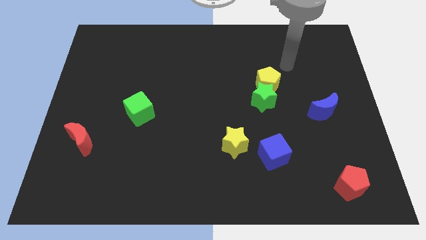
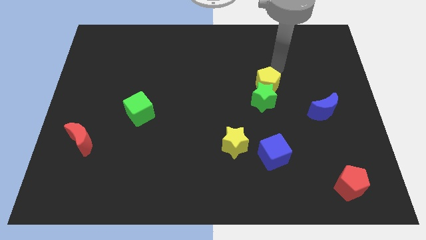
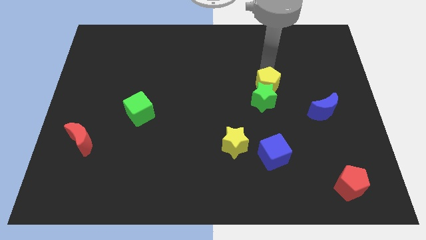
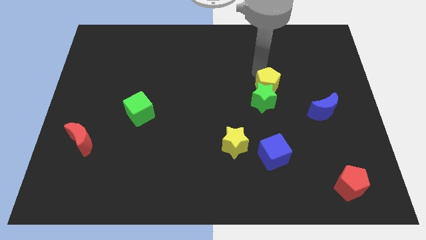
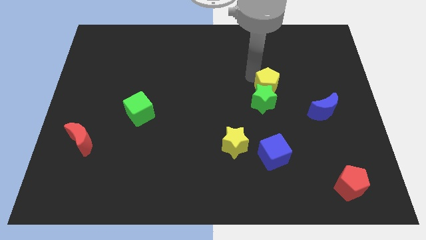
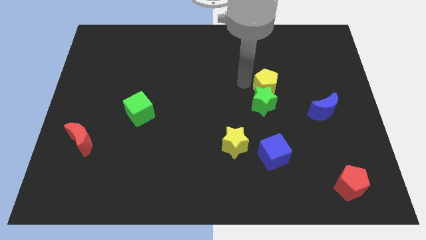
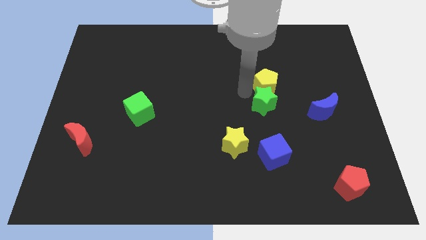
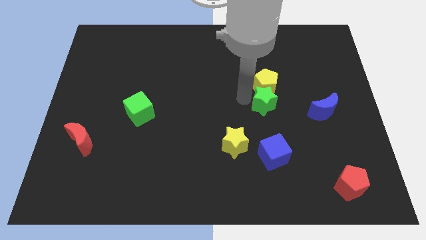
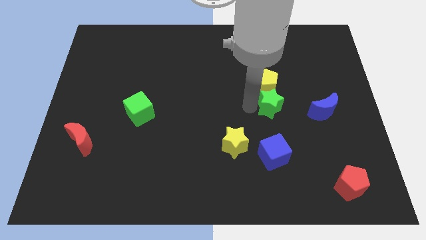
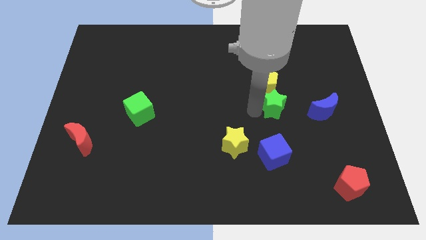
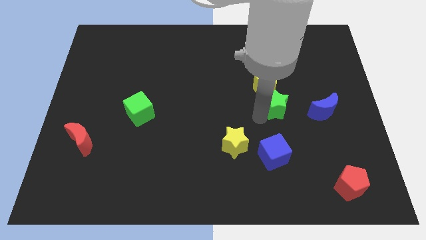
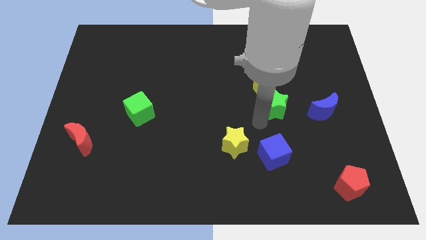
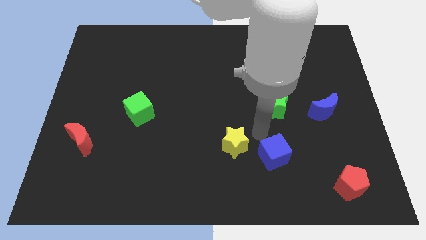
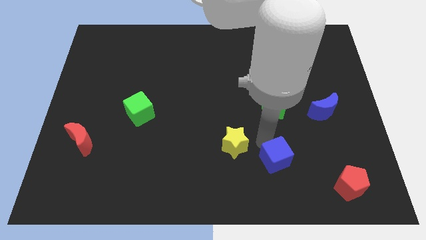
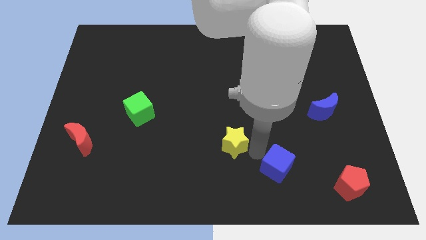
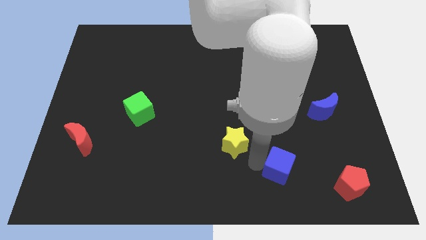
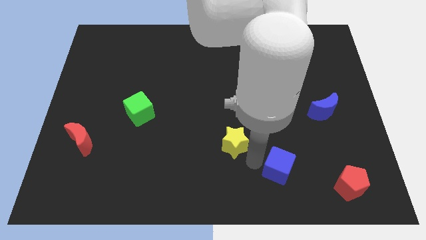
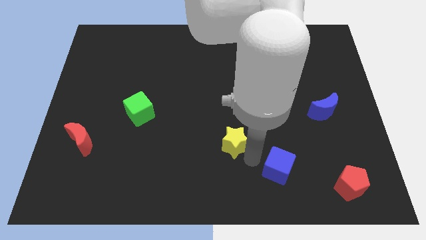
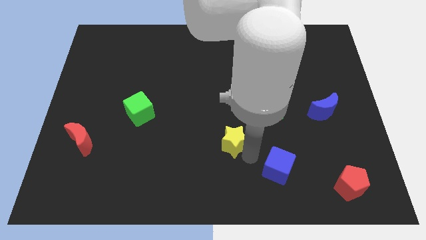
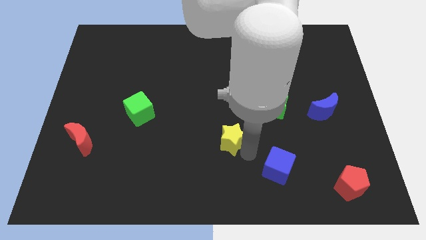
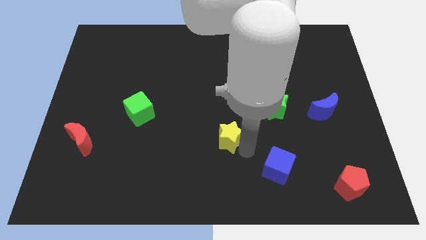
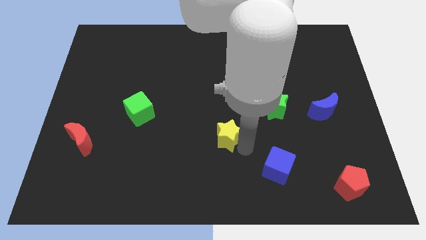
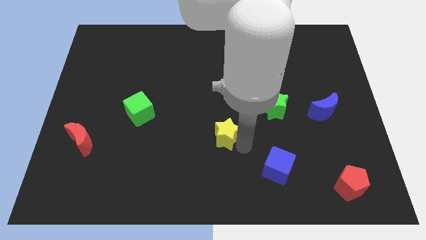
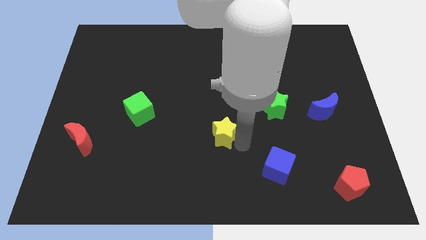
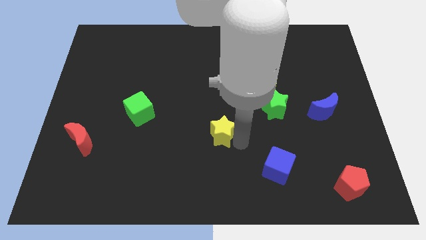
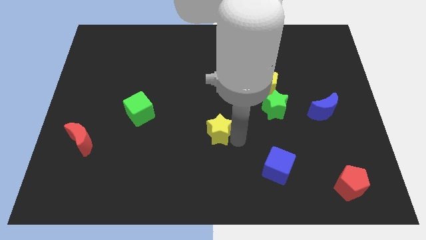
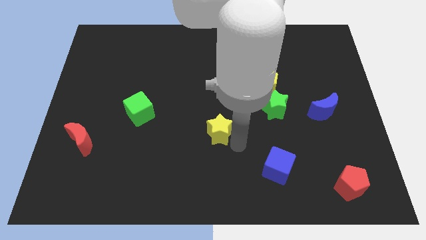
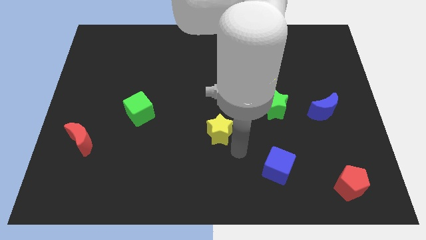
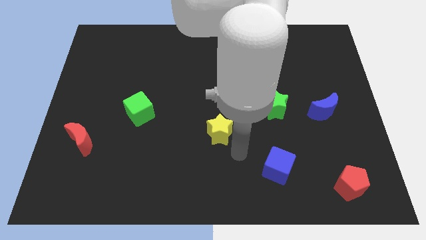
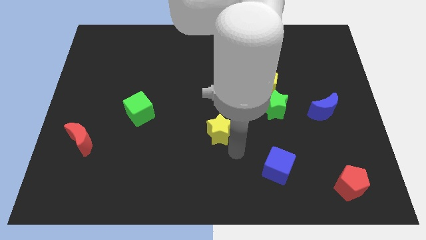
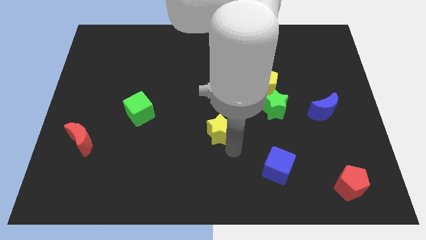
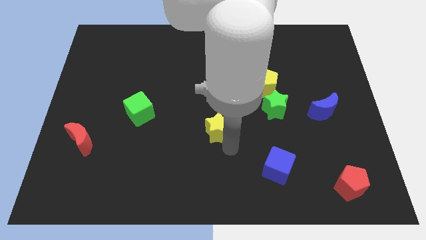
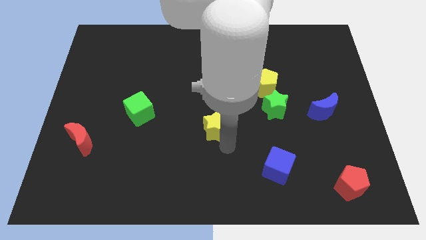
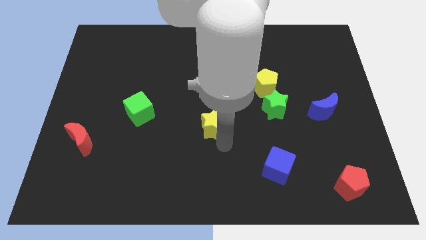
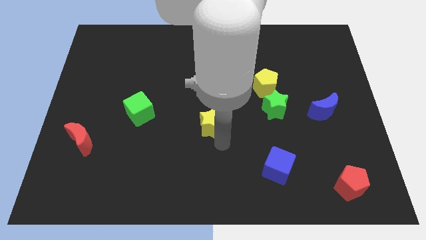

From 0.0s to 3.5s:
push the yellow star somewhat upwards and then to the left

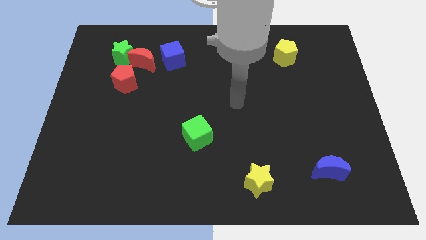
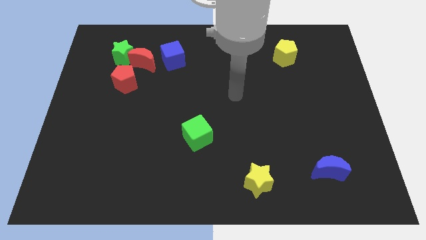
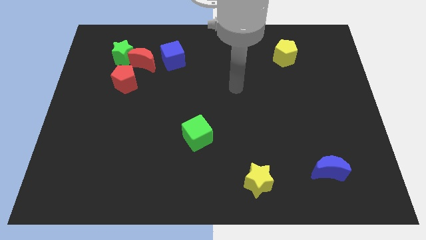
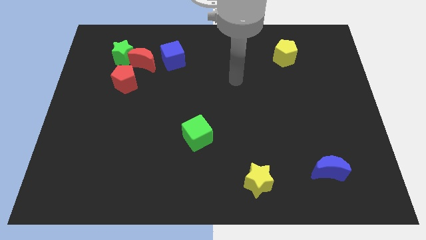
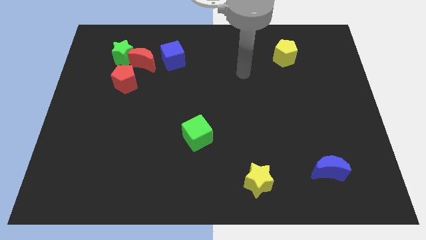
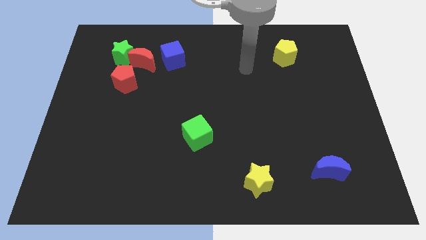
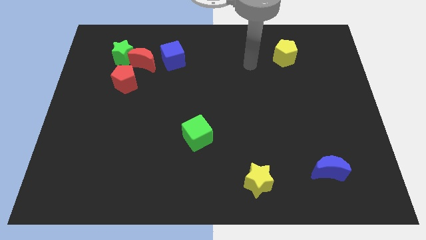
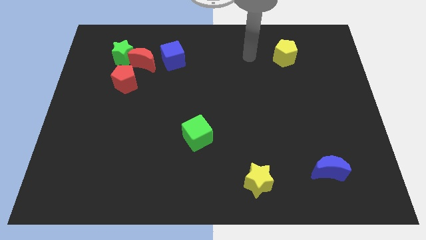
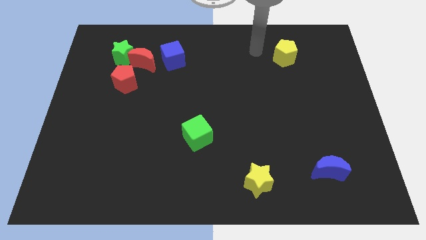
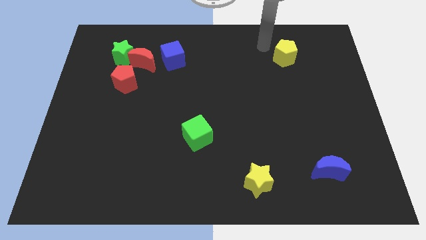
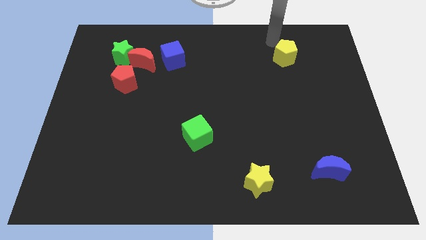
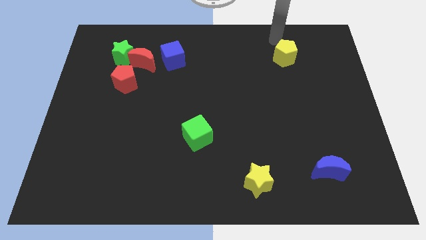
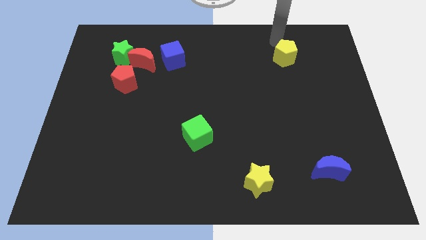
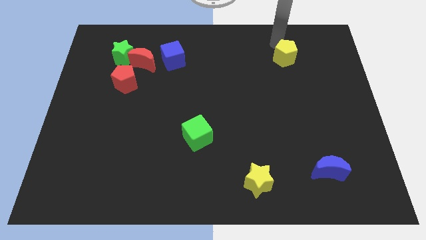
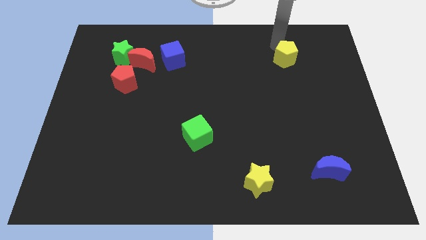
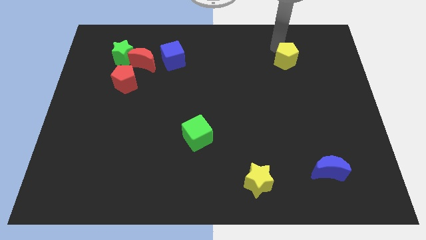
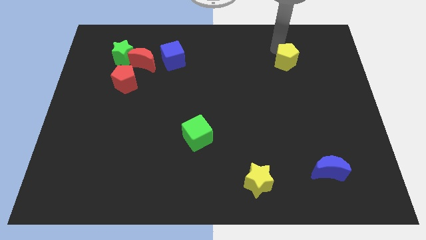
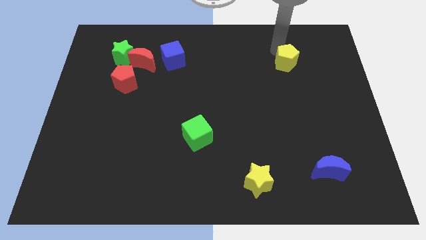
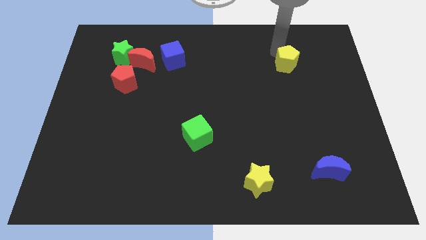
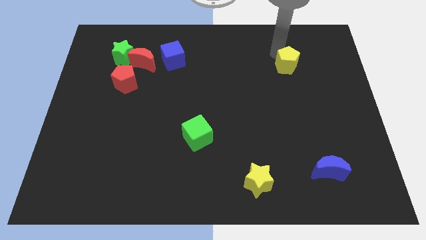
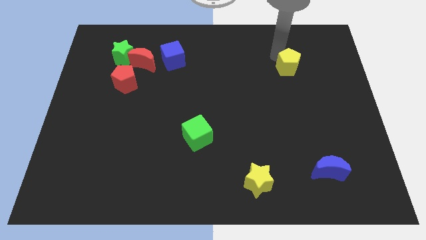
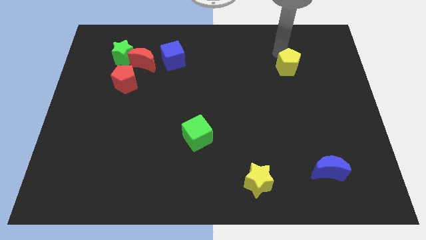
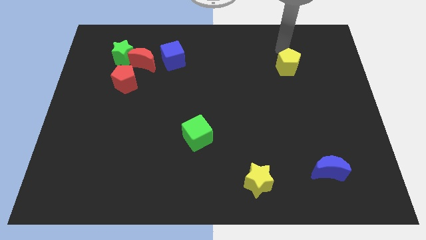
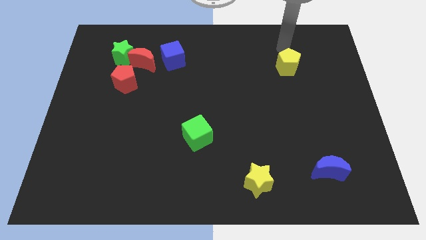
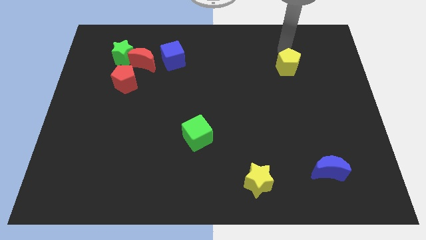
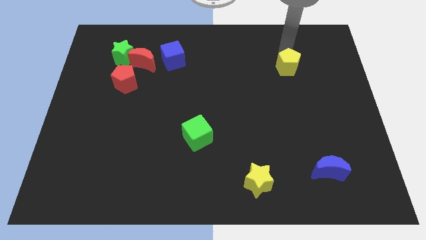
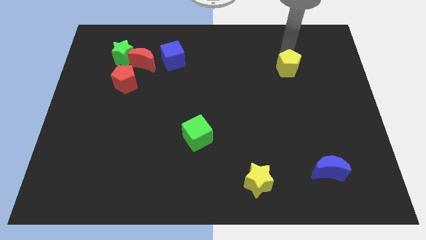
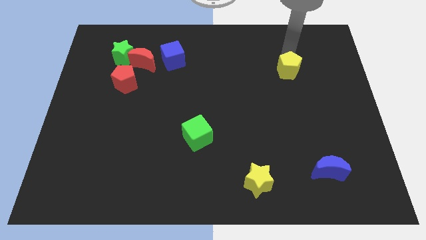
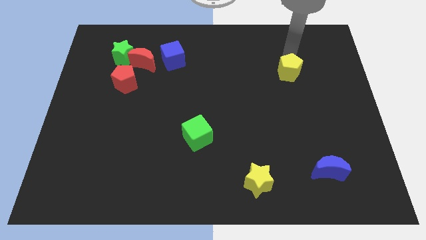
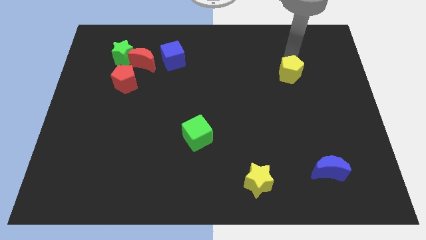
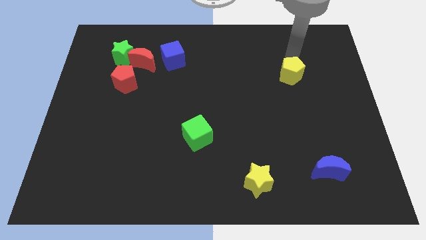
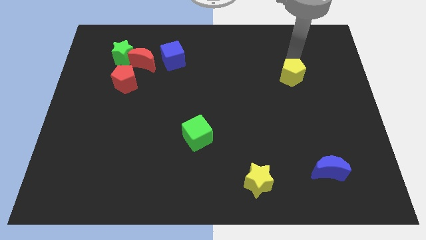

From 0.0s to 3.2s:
move the yellow pentagon downwards somewhat

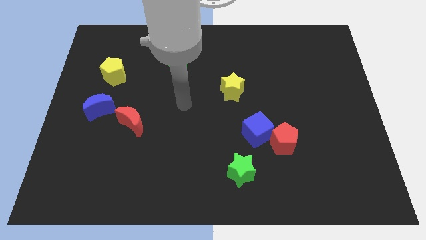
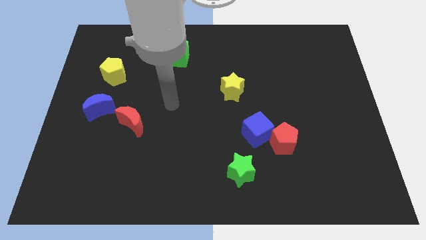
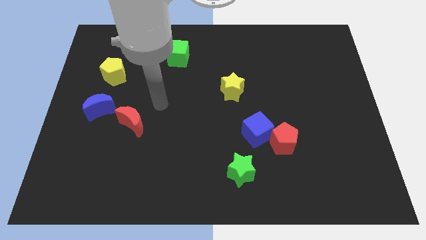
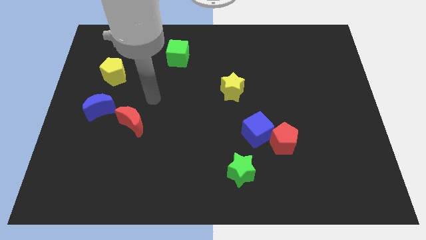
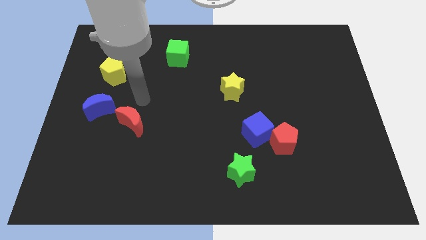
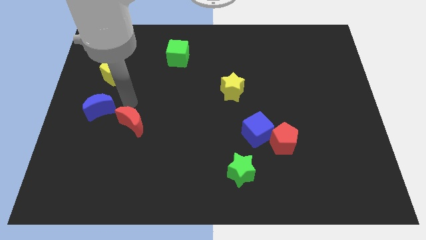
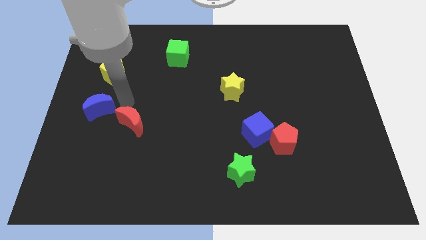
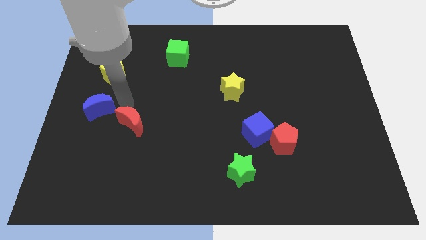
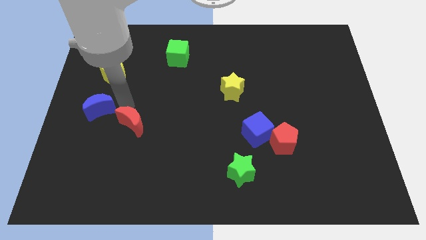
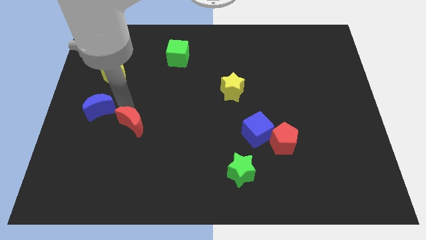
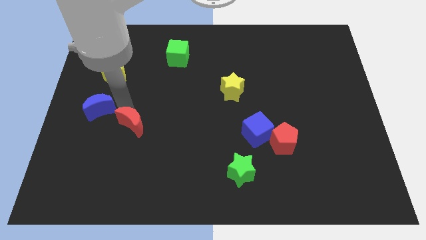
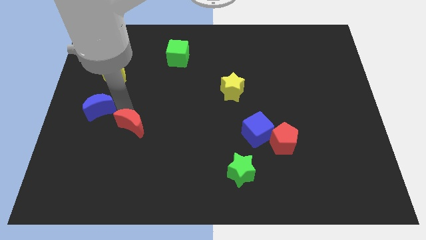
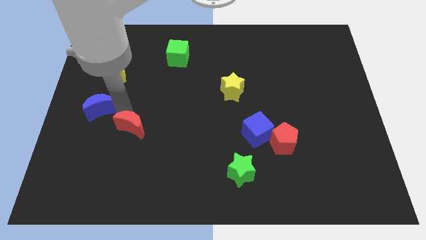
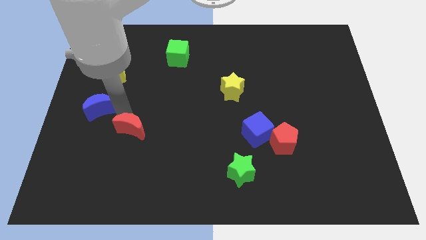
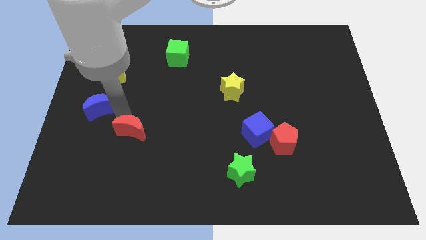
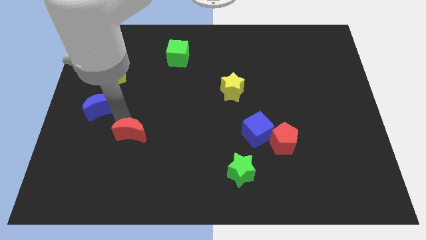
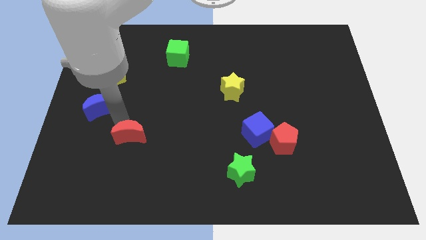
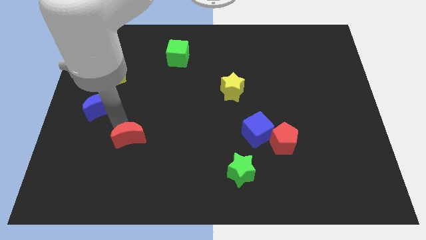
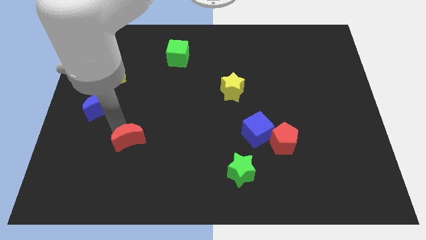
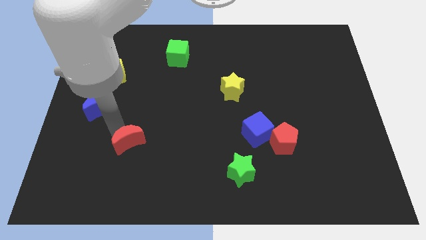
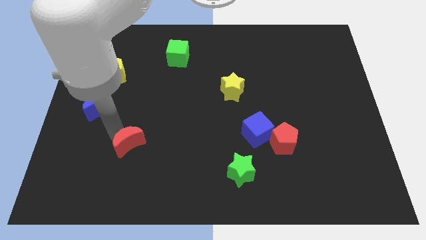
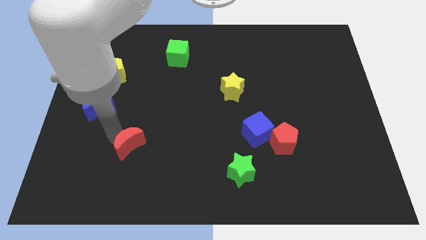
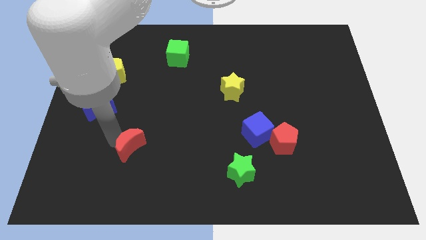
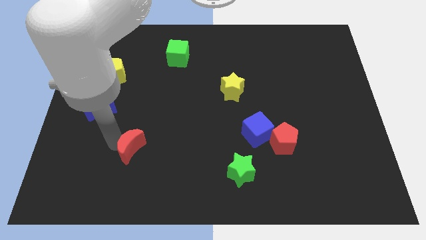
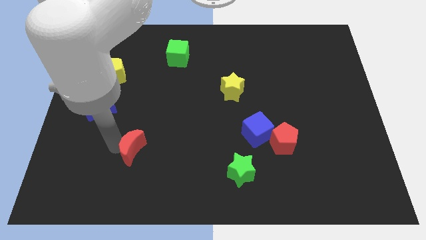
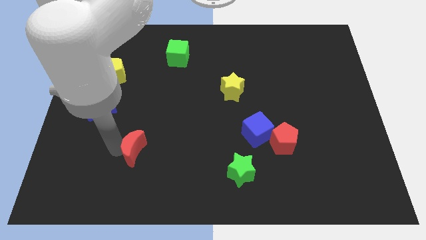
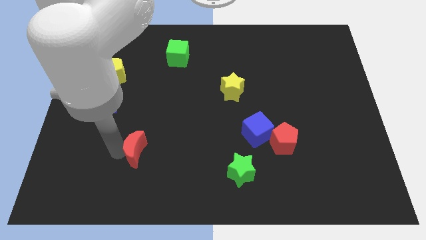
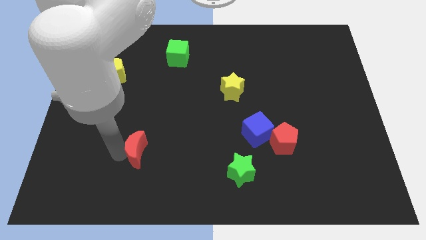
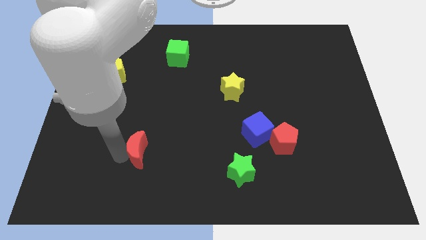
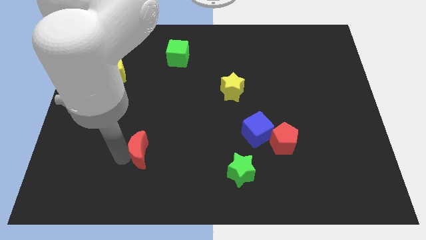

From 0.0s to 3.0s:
move the red moon down and to the right a little
